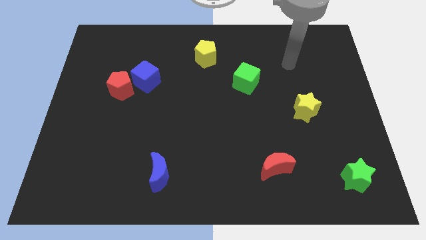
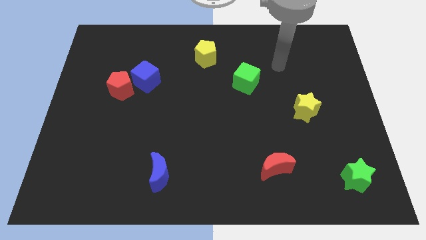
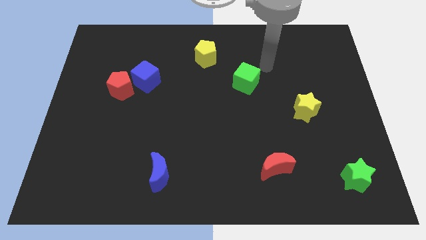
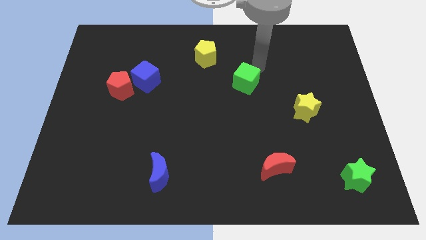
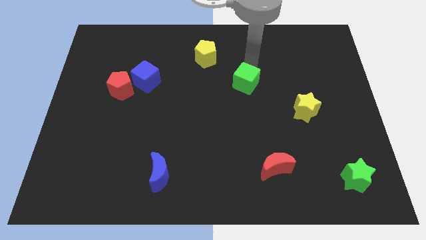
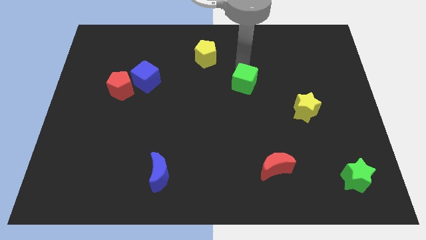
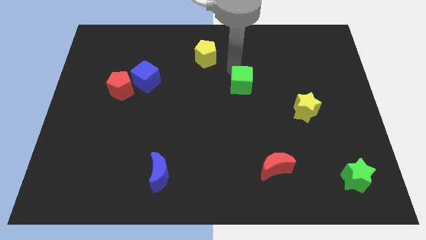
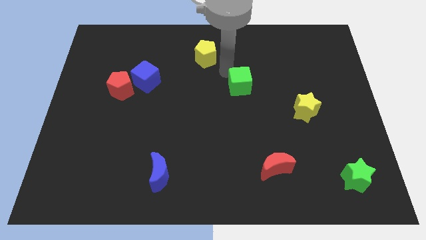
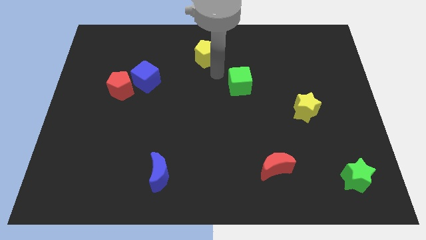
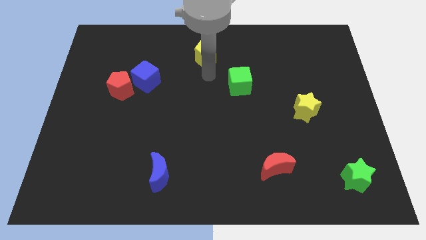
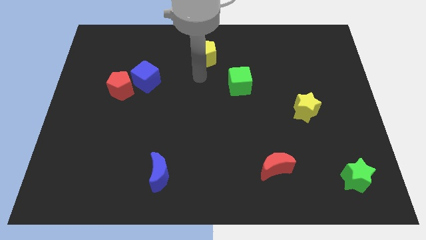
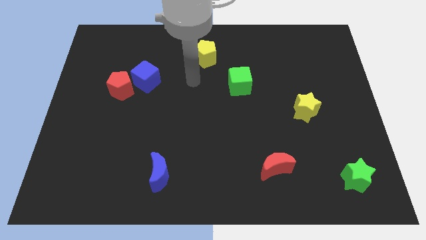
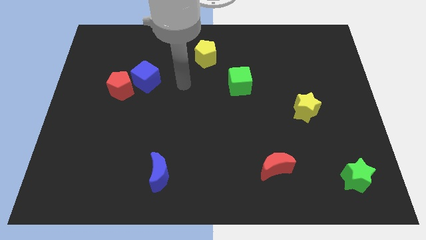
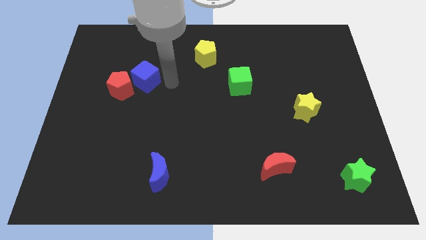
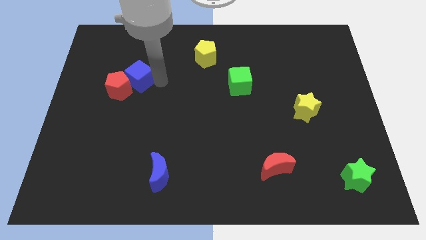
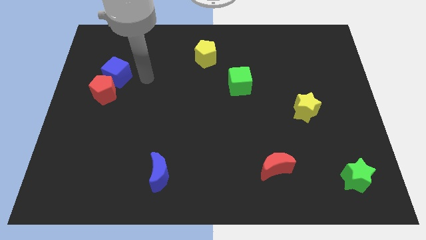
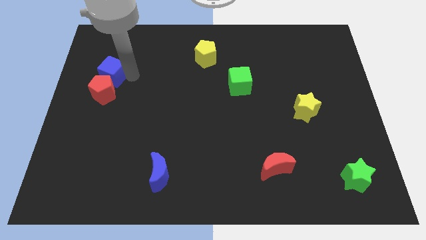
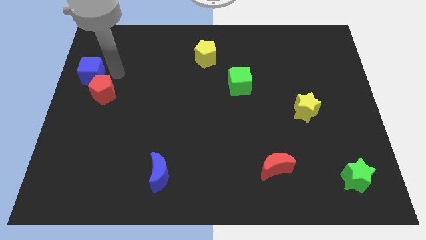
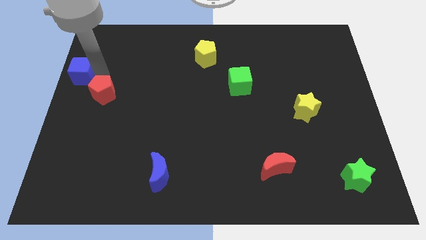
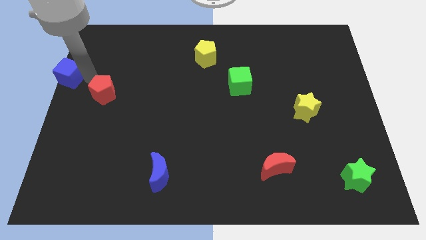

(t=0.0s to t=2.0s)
pull the red pentagon apart from the blue cube

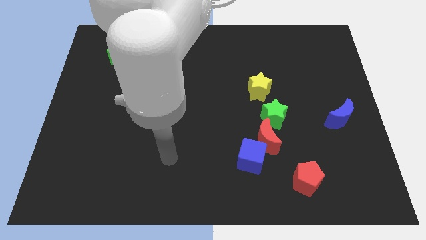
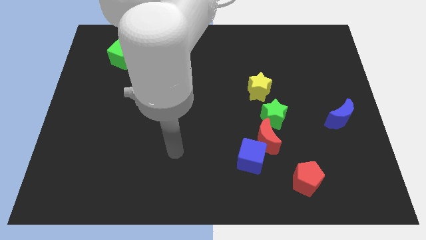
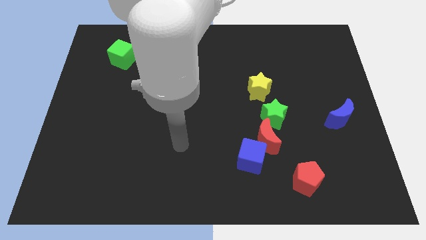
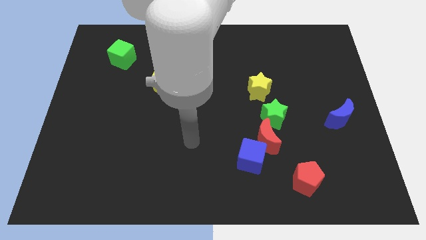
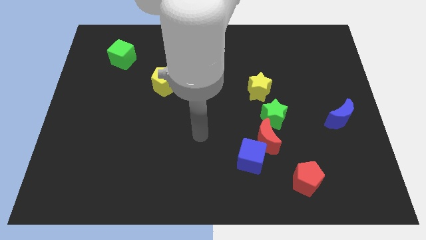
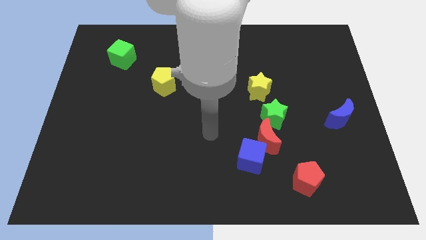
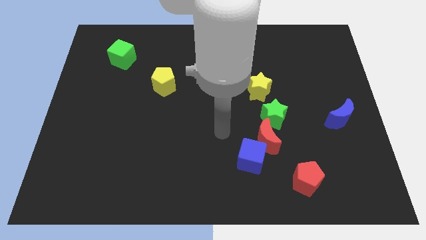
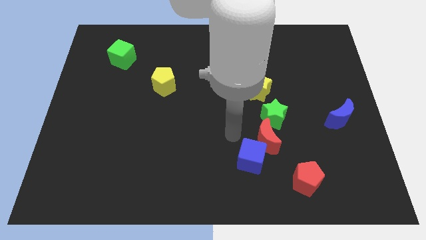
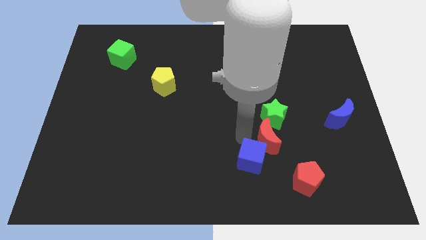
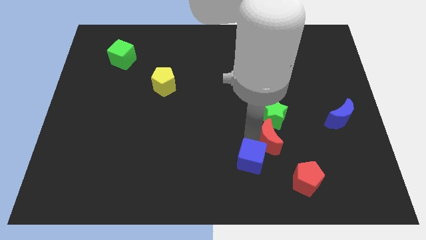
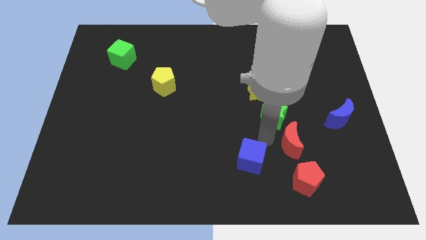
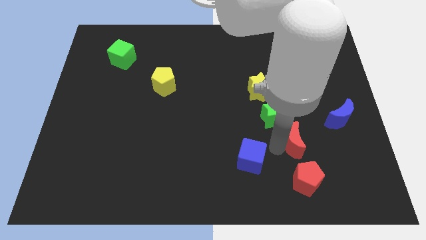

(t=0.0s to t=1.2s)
move the blue cube away from the red moon

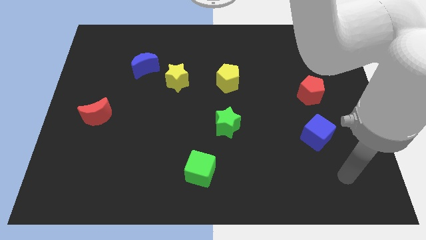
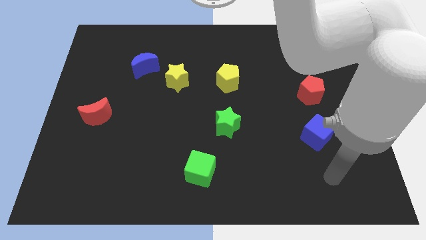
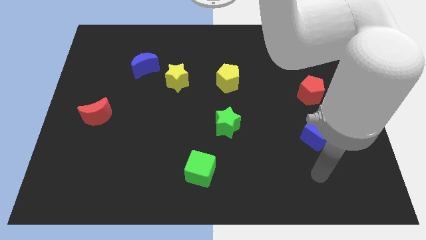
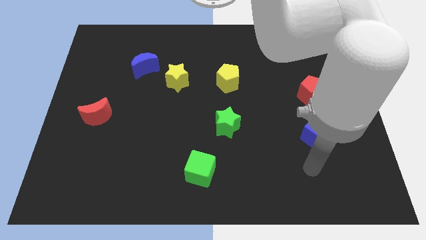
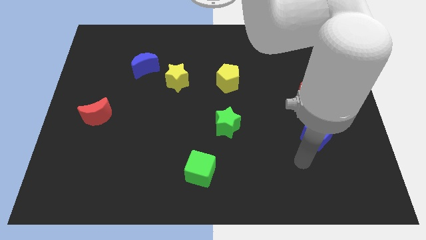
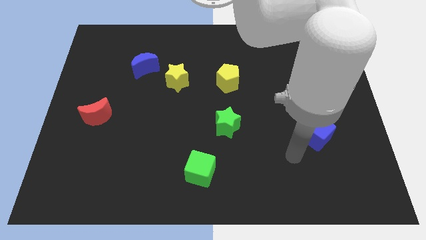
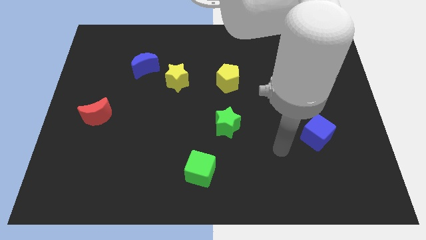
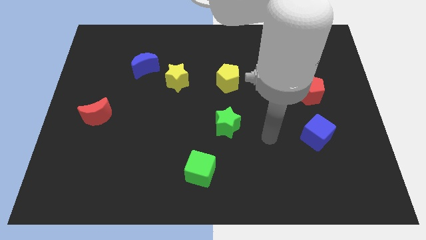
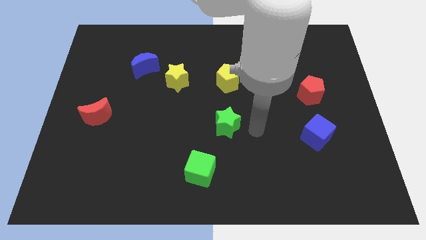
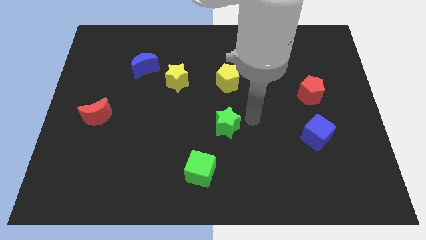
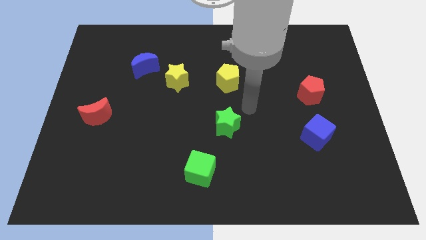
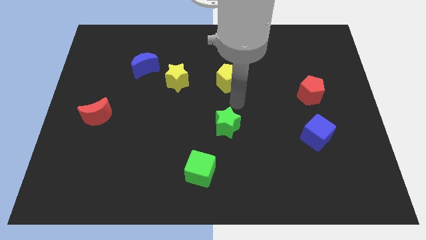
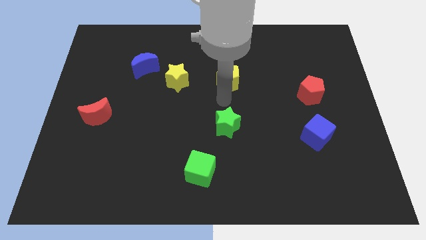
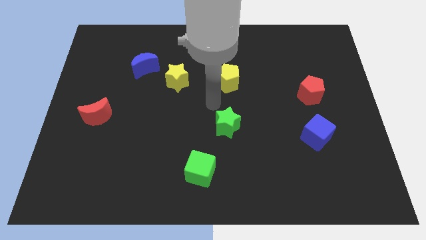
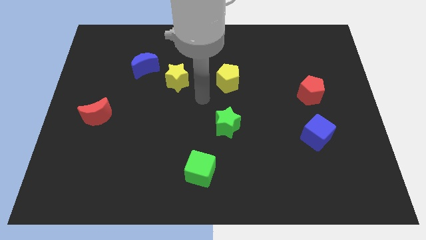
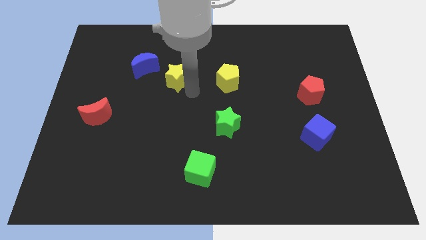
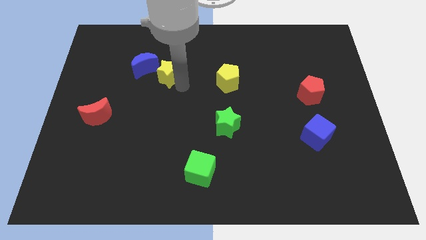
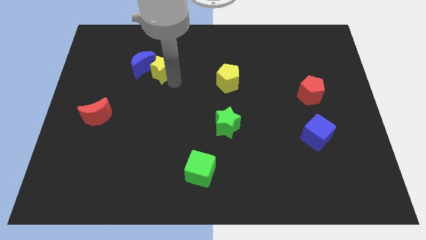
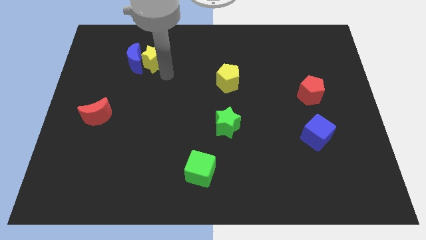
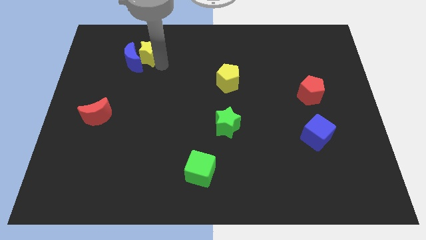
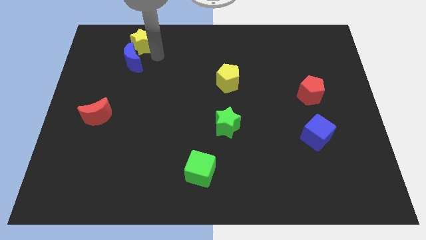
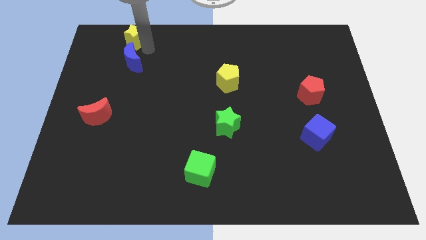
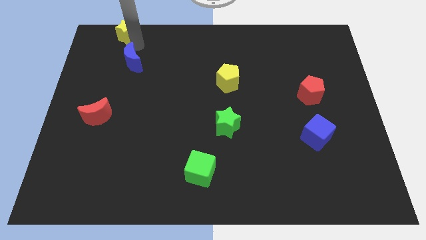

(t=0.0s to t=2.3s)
separate the blue moon from the yellow star

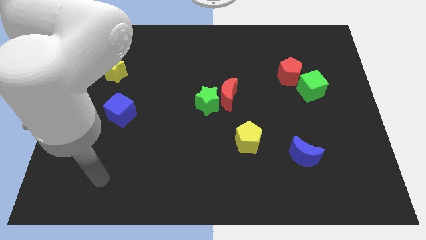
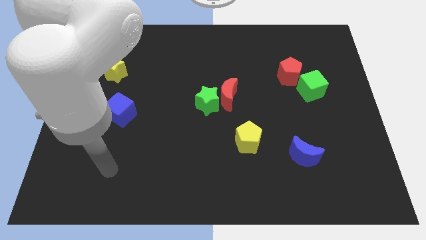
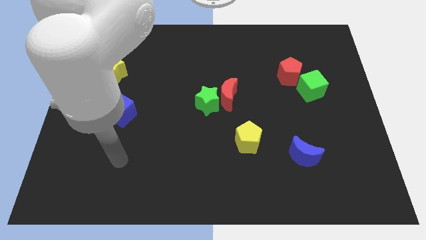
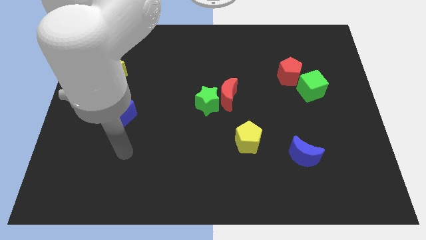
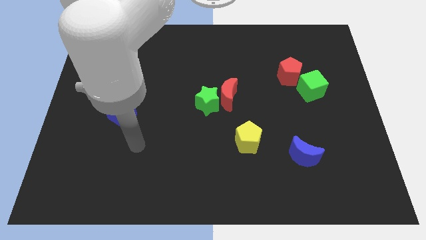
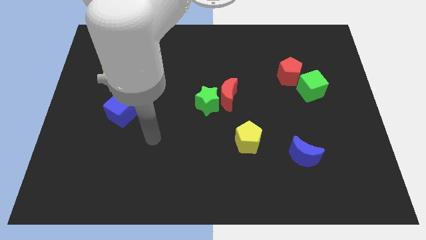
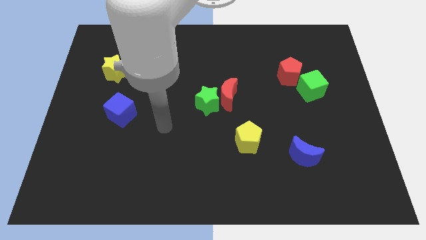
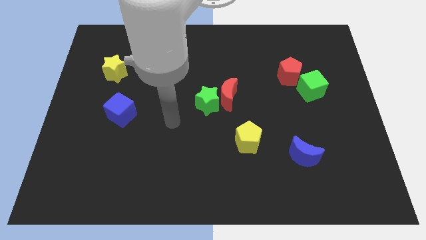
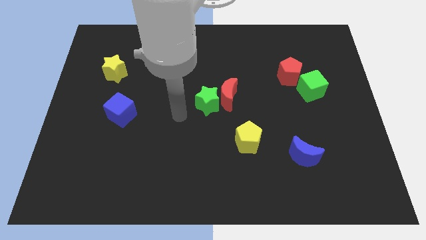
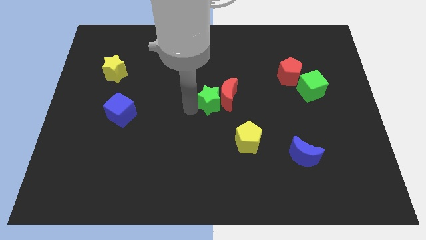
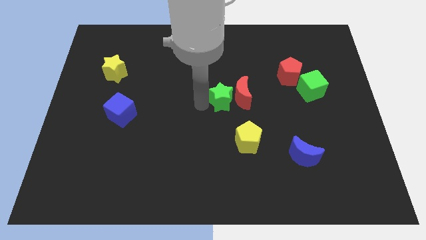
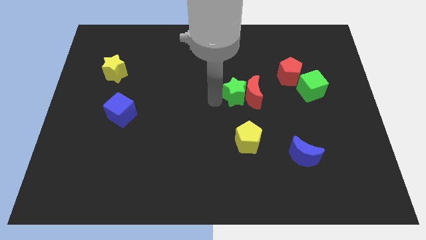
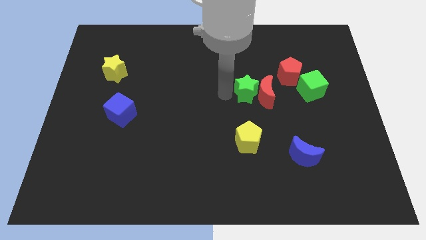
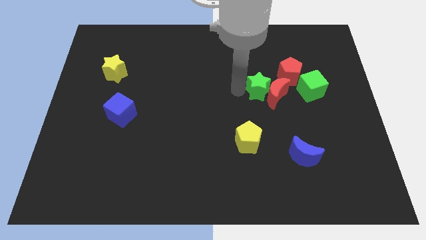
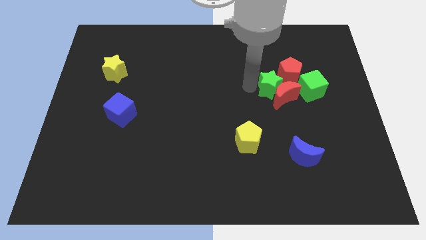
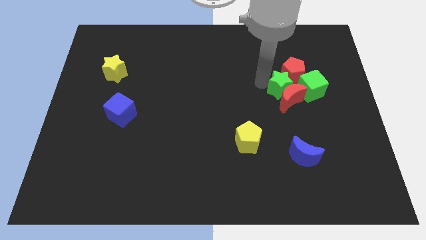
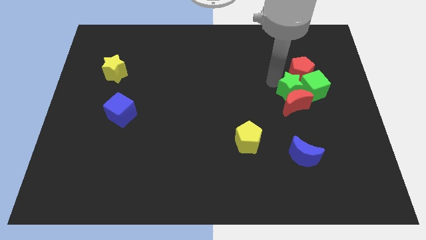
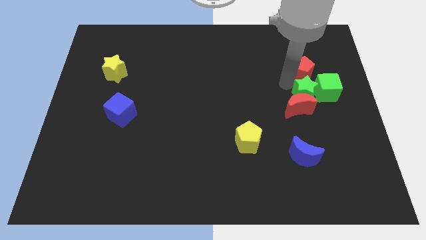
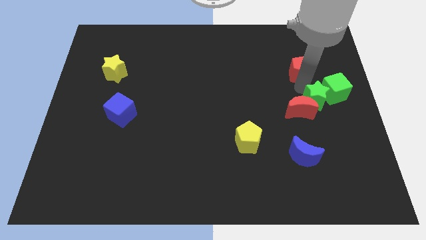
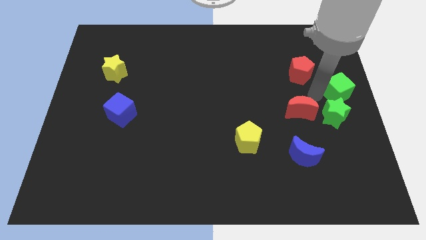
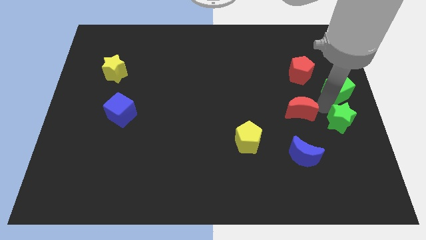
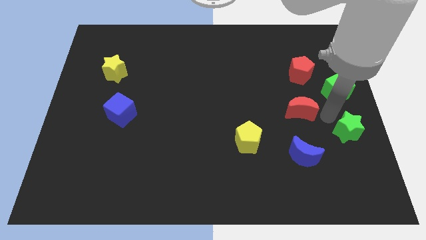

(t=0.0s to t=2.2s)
pull the red moon apart from the green star

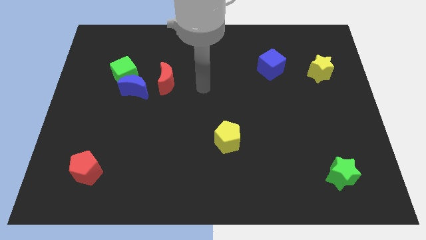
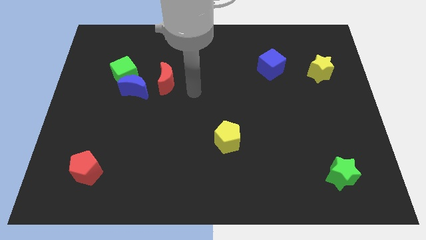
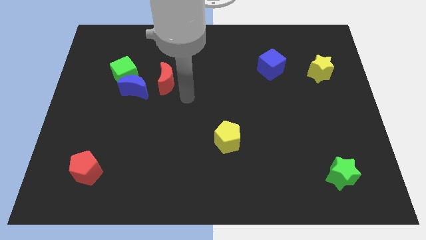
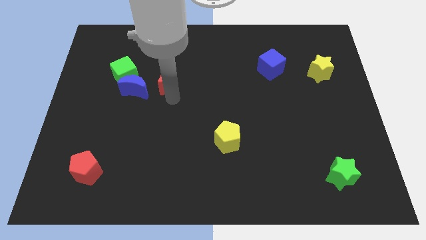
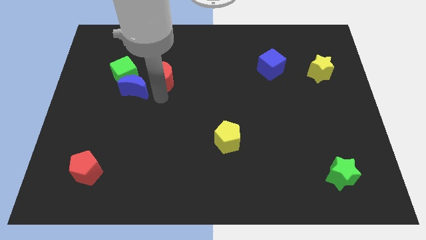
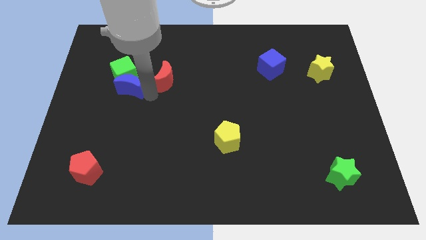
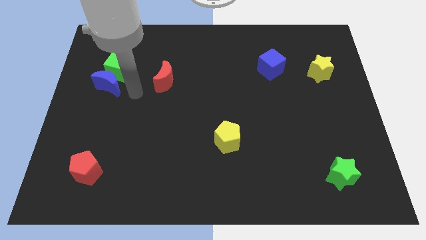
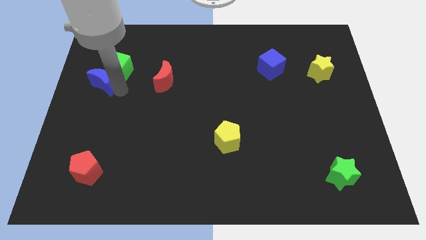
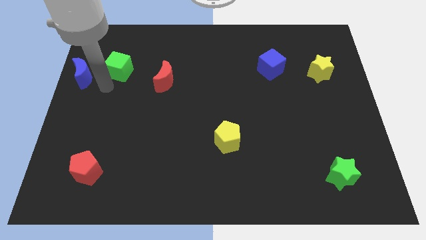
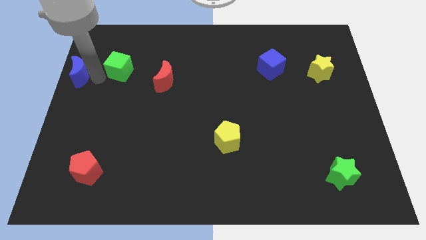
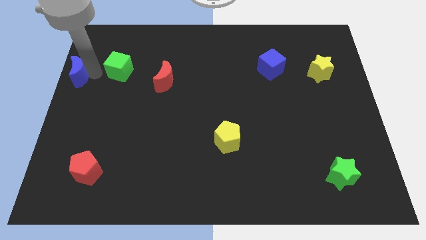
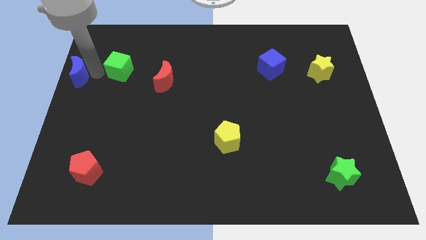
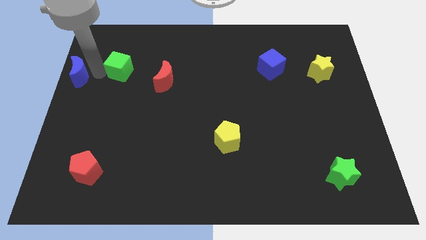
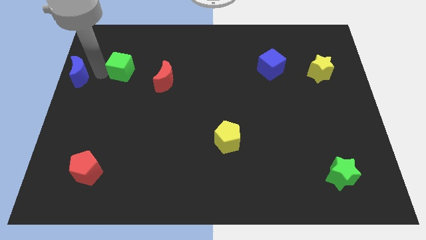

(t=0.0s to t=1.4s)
move the green cube away from the blue moon

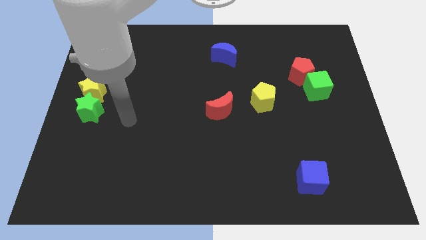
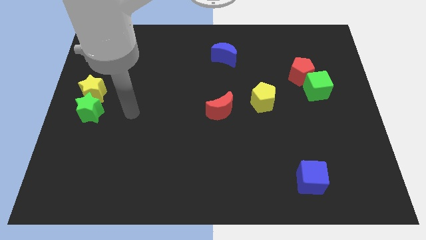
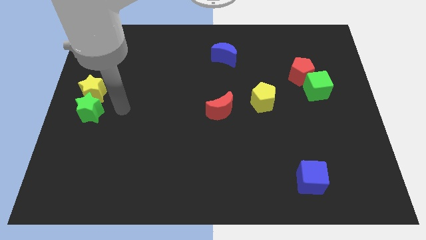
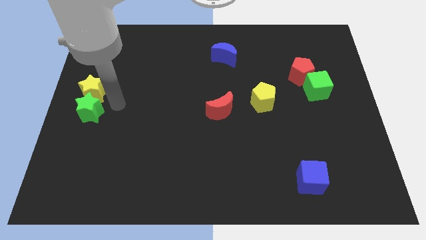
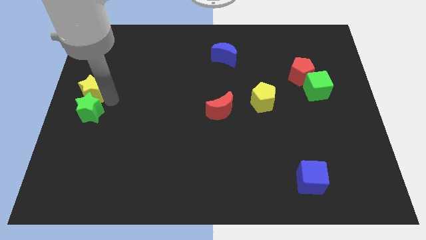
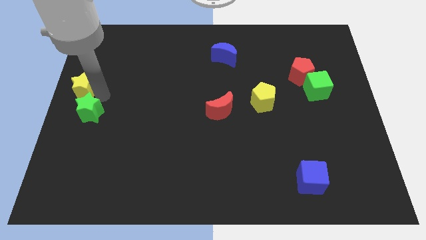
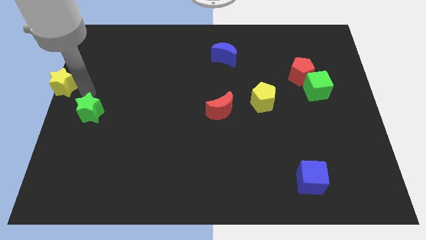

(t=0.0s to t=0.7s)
separate the green star from the yellow star
